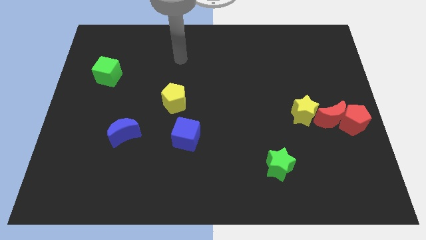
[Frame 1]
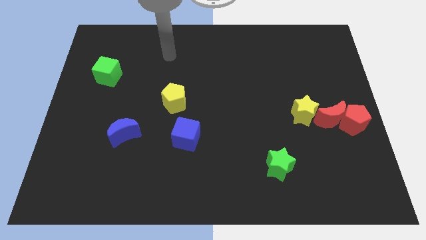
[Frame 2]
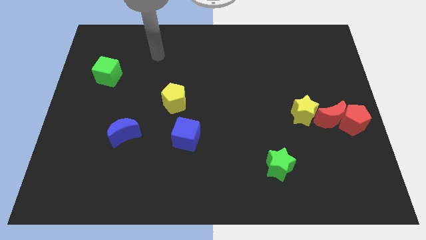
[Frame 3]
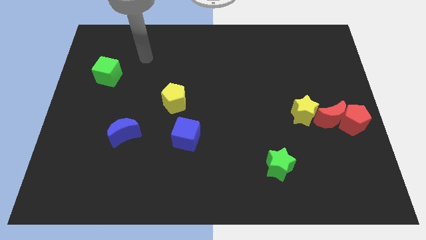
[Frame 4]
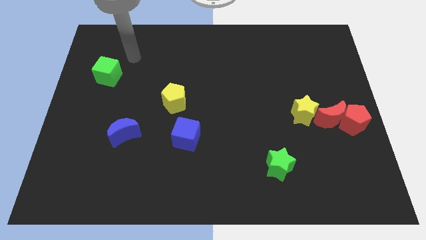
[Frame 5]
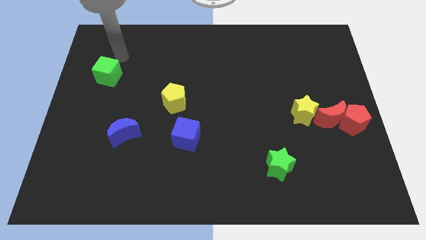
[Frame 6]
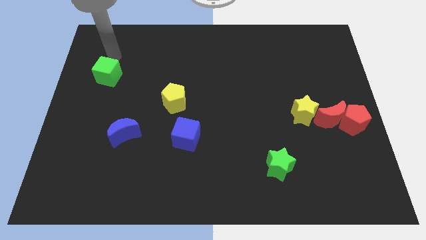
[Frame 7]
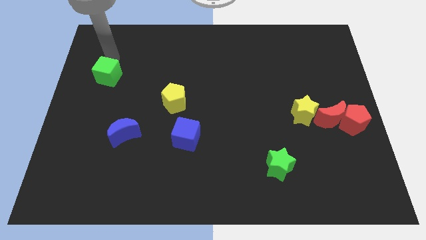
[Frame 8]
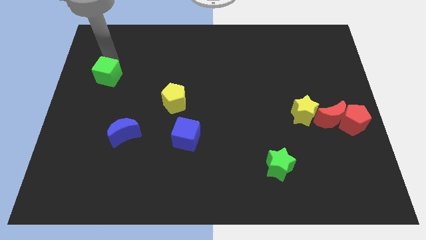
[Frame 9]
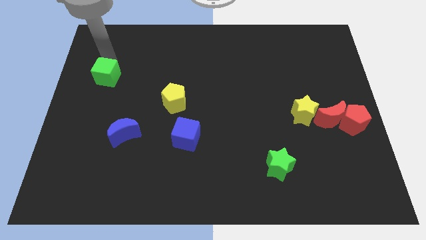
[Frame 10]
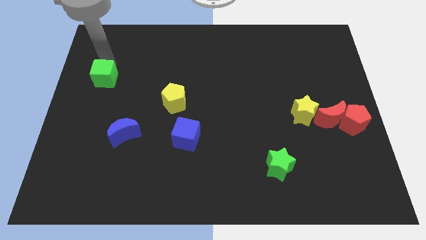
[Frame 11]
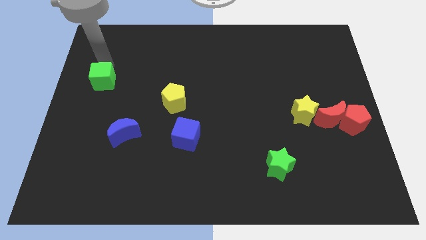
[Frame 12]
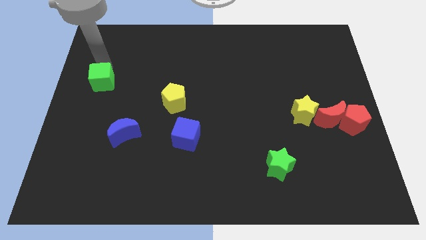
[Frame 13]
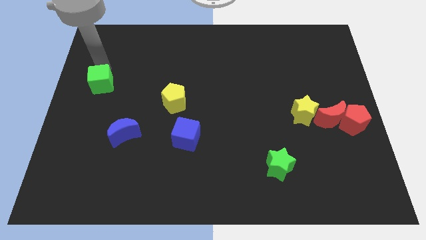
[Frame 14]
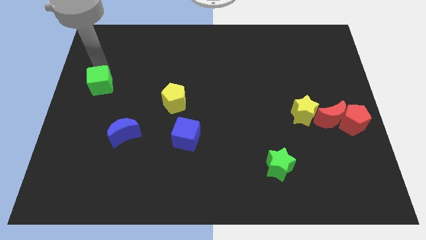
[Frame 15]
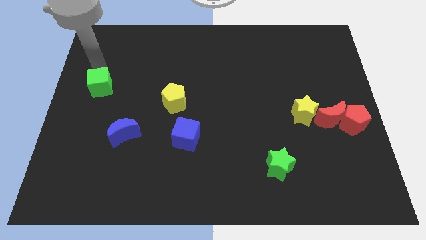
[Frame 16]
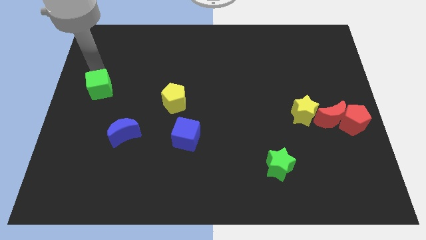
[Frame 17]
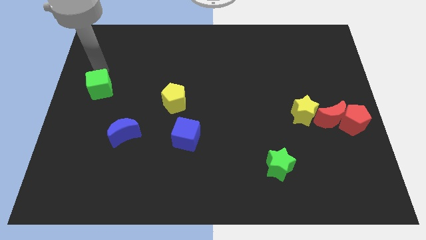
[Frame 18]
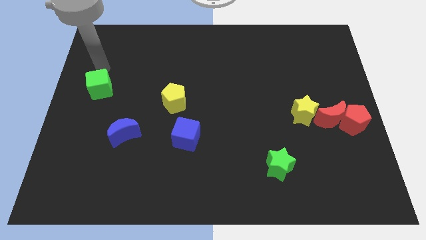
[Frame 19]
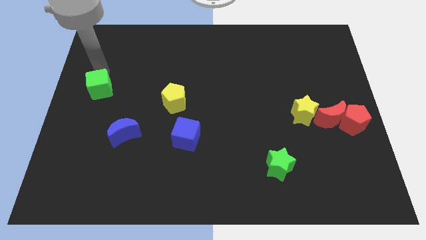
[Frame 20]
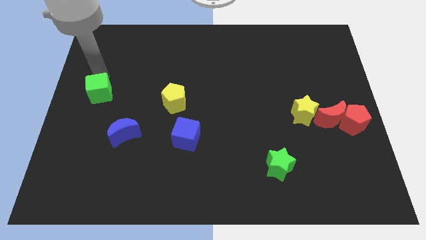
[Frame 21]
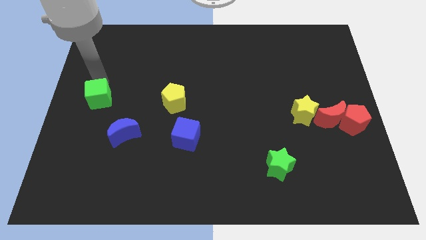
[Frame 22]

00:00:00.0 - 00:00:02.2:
slightly move the green cube downwards

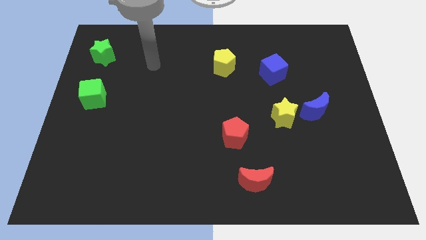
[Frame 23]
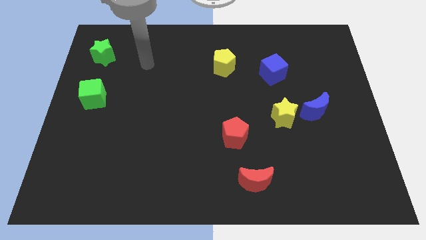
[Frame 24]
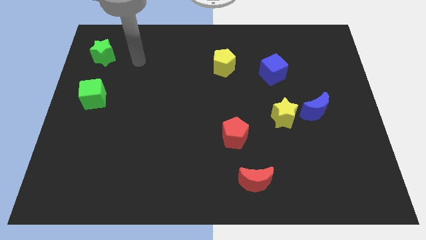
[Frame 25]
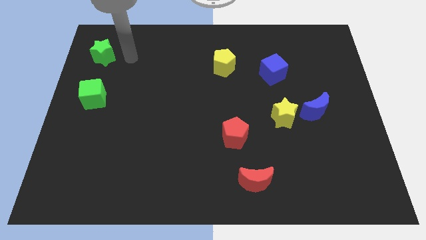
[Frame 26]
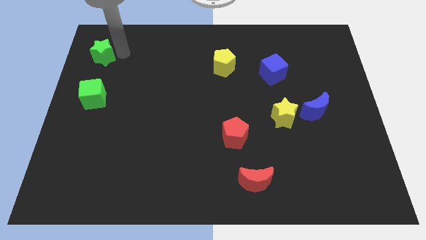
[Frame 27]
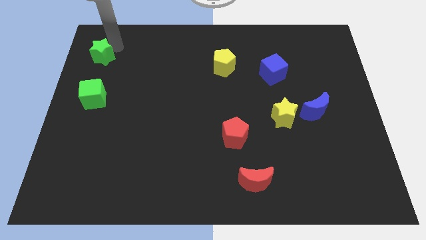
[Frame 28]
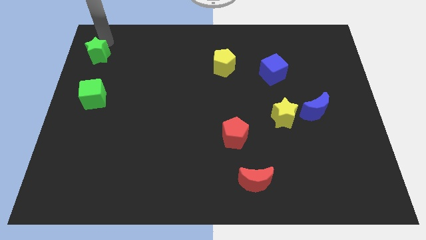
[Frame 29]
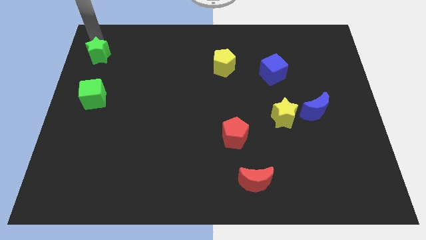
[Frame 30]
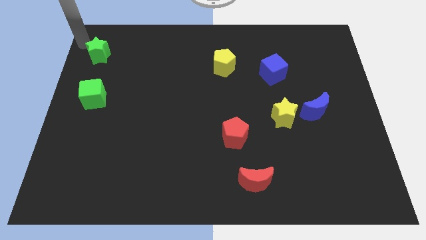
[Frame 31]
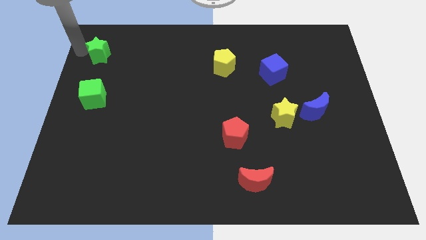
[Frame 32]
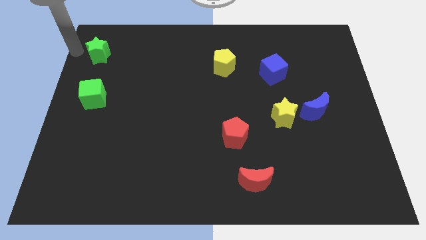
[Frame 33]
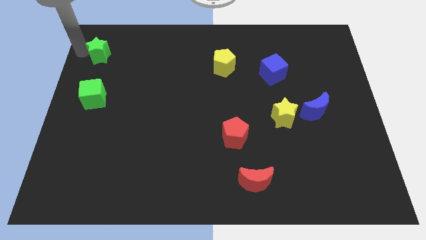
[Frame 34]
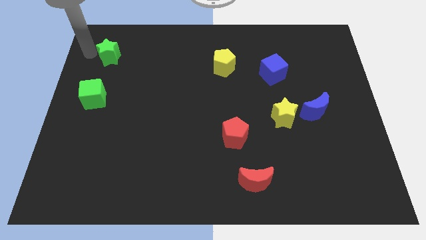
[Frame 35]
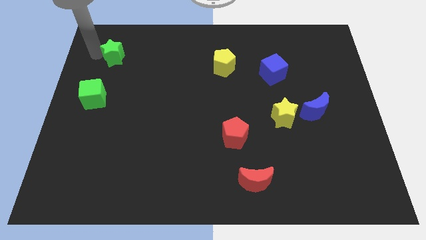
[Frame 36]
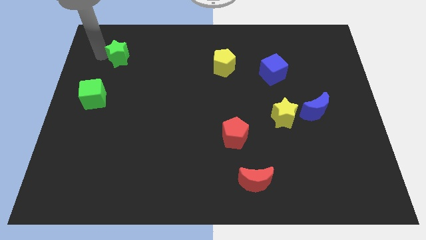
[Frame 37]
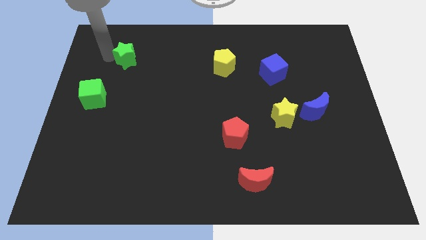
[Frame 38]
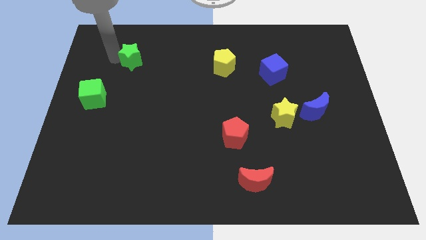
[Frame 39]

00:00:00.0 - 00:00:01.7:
push the green star to the right a little bit

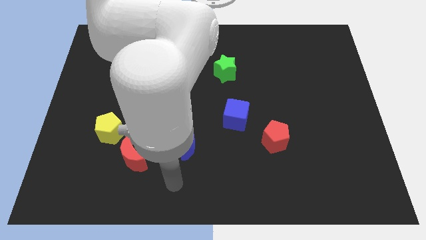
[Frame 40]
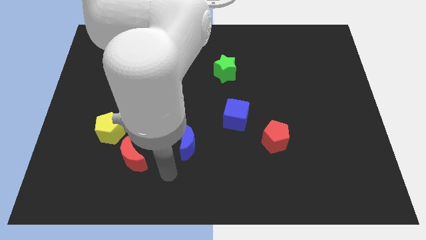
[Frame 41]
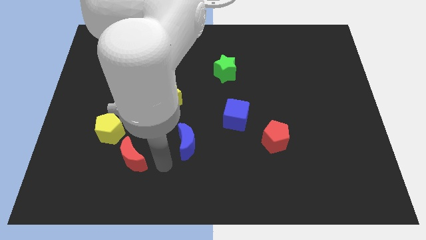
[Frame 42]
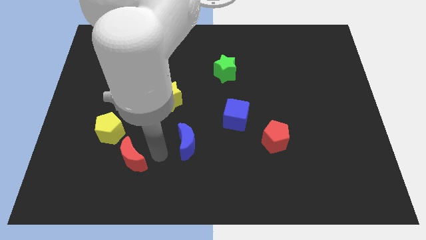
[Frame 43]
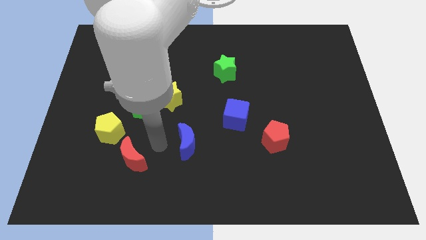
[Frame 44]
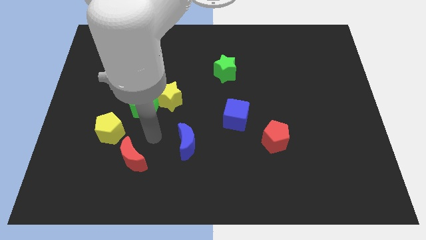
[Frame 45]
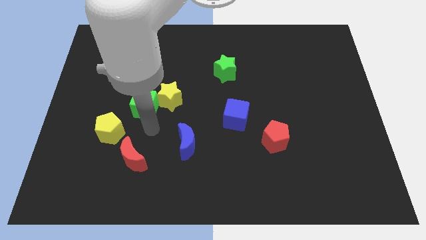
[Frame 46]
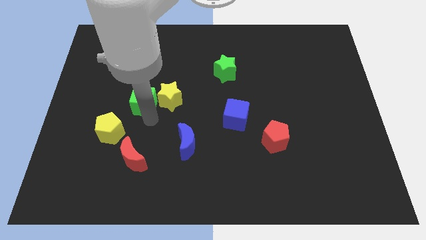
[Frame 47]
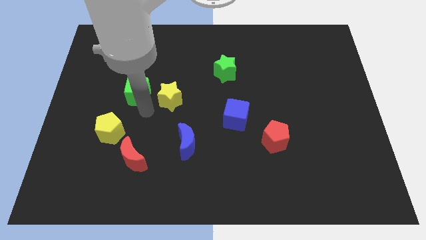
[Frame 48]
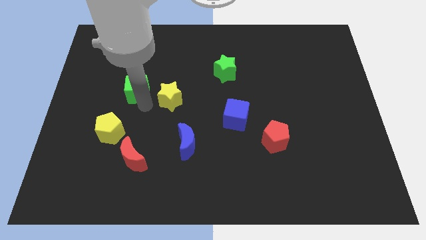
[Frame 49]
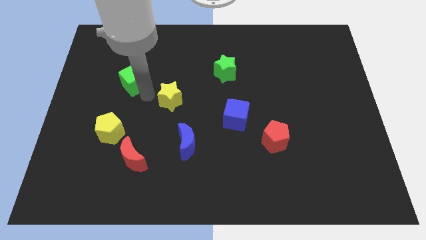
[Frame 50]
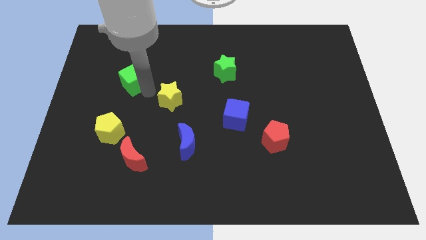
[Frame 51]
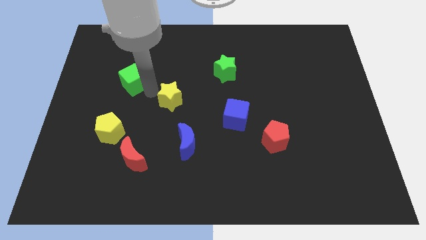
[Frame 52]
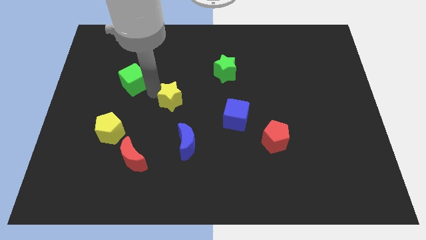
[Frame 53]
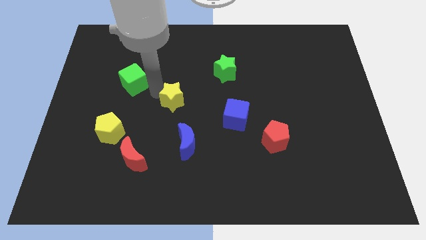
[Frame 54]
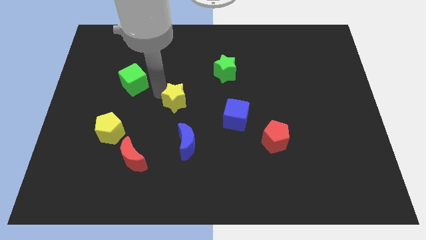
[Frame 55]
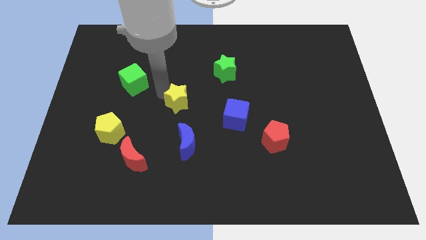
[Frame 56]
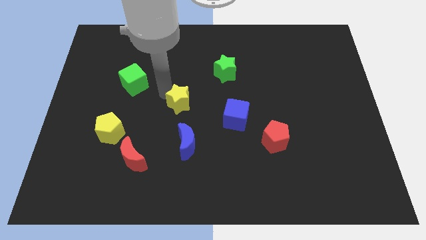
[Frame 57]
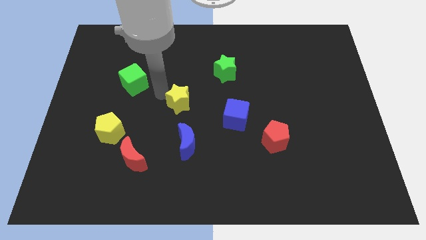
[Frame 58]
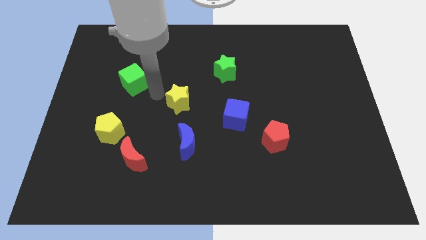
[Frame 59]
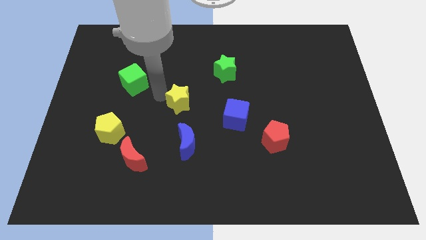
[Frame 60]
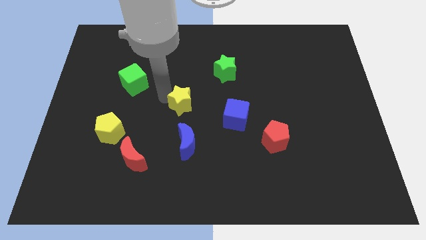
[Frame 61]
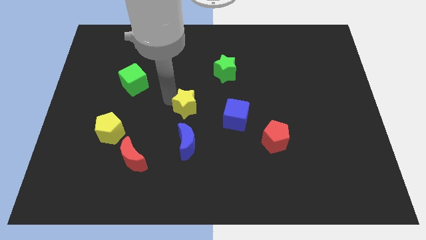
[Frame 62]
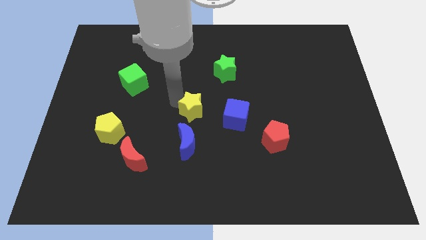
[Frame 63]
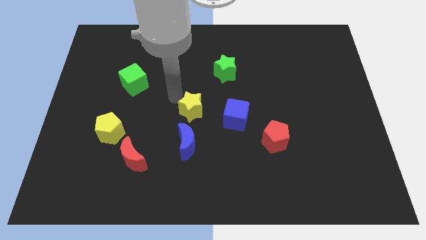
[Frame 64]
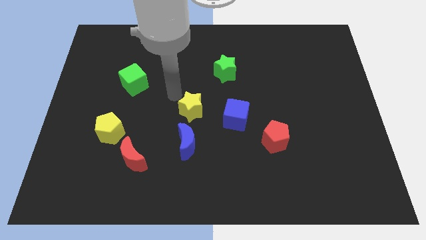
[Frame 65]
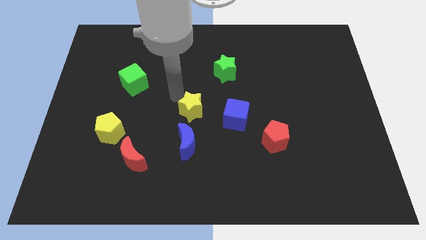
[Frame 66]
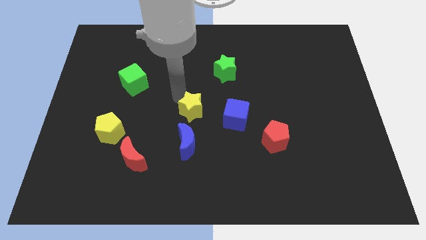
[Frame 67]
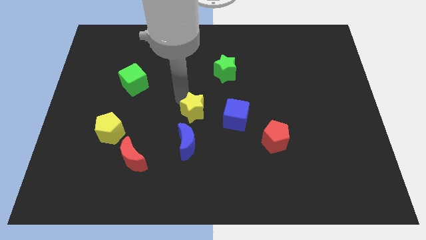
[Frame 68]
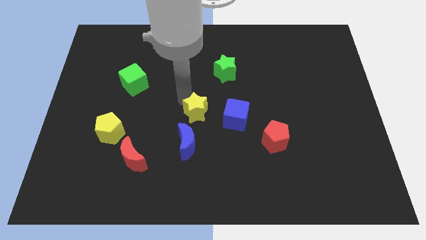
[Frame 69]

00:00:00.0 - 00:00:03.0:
push the yellow star a little bit diagonally down and right

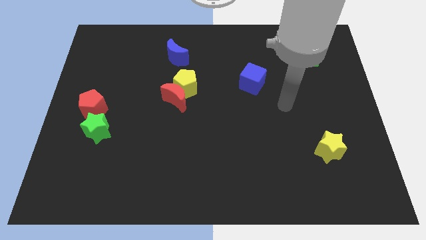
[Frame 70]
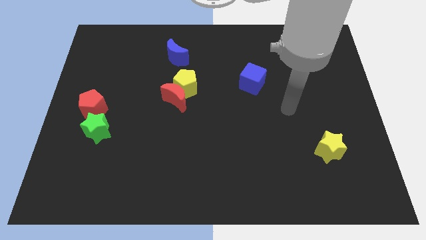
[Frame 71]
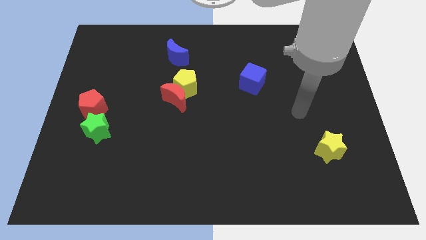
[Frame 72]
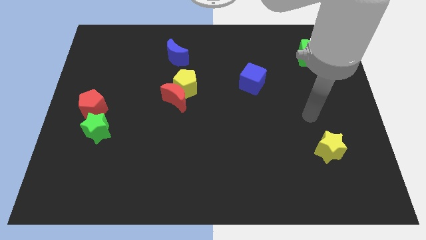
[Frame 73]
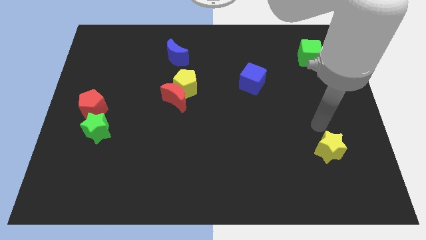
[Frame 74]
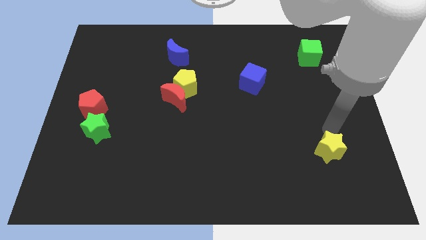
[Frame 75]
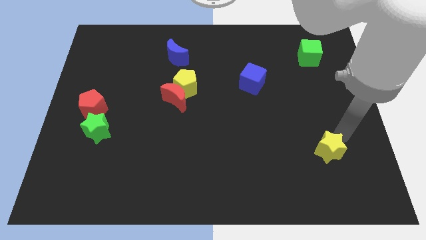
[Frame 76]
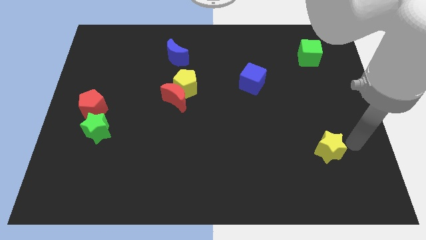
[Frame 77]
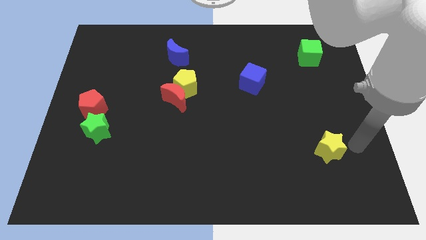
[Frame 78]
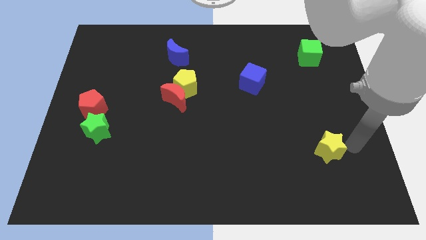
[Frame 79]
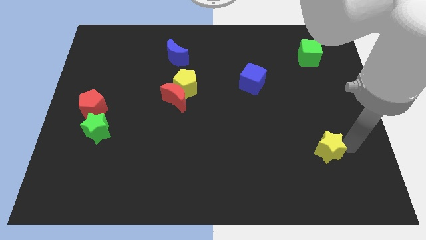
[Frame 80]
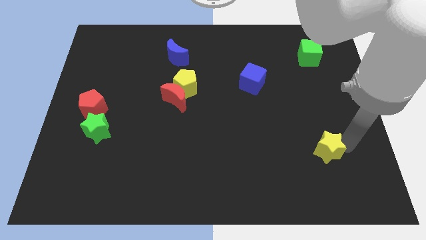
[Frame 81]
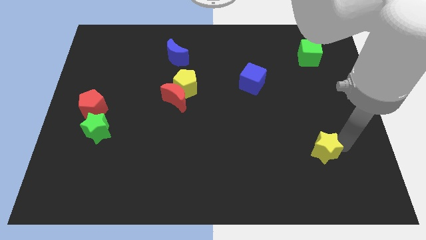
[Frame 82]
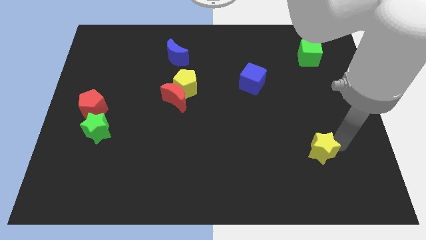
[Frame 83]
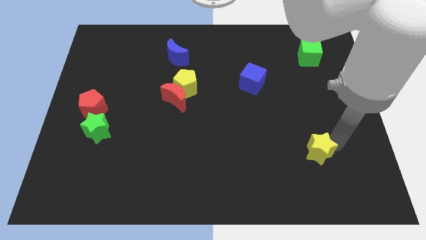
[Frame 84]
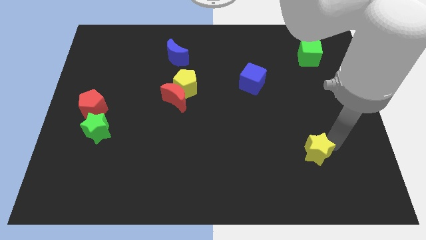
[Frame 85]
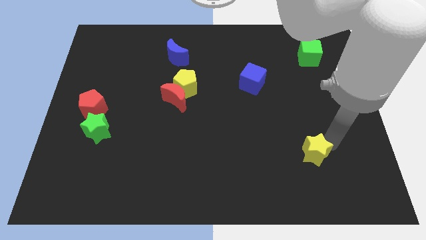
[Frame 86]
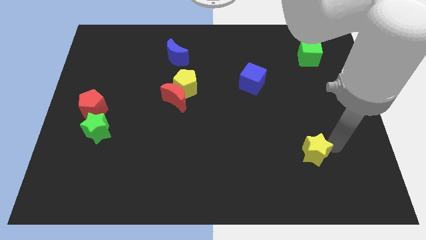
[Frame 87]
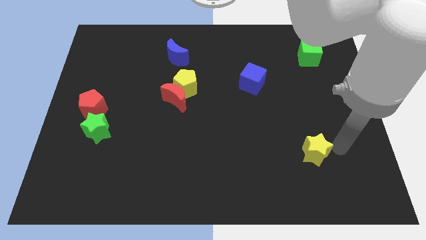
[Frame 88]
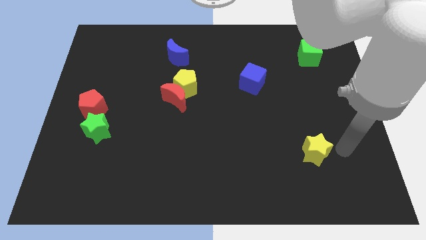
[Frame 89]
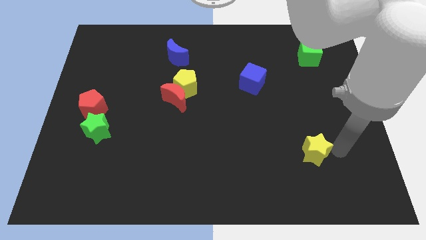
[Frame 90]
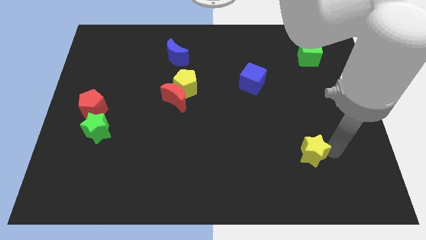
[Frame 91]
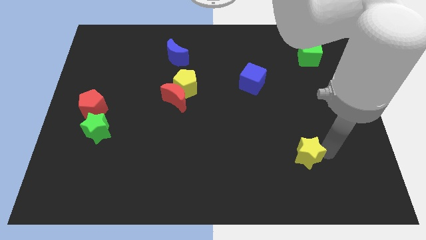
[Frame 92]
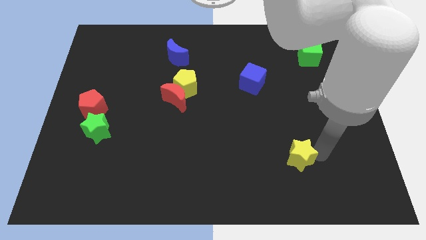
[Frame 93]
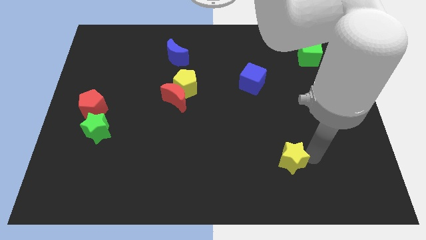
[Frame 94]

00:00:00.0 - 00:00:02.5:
slide the yellow star somewhat left
